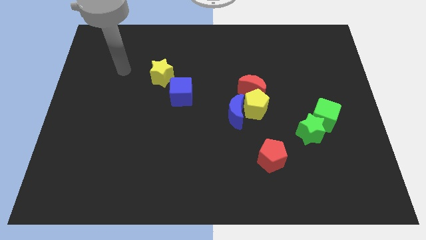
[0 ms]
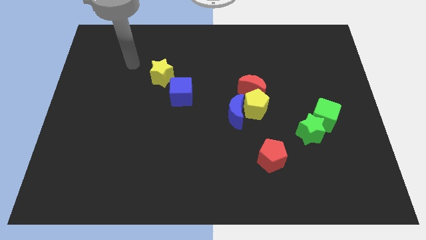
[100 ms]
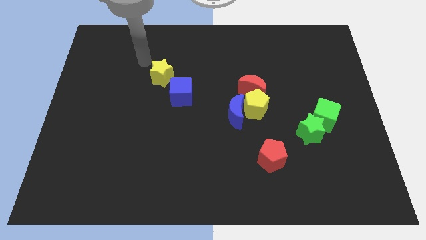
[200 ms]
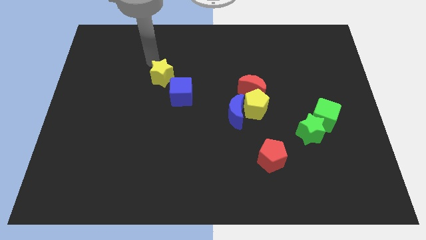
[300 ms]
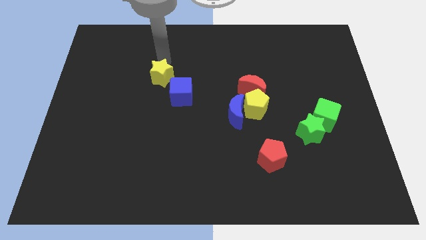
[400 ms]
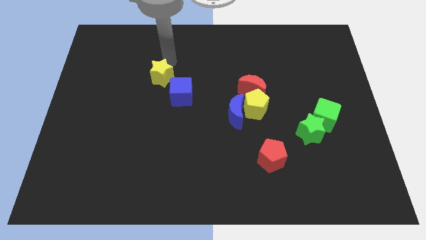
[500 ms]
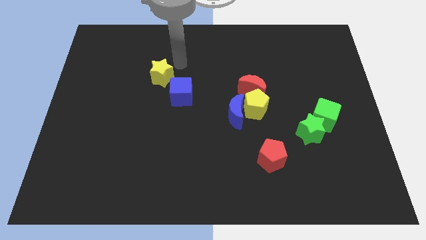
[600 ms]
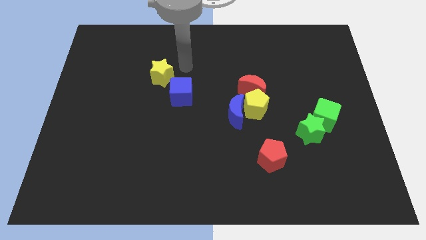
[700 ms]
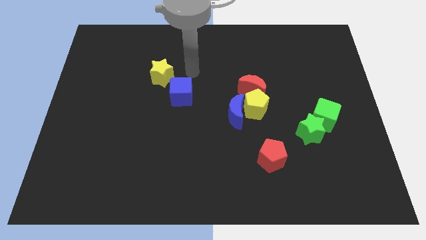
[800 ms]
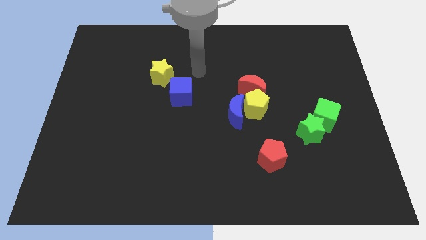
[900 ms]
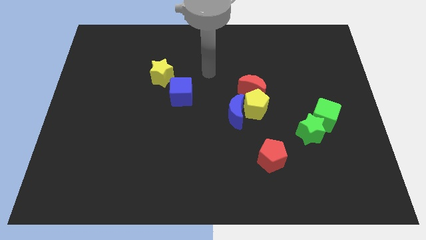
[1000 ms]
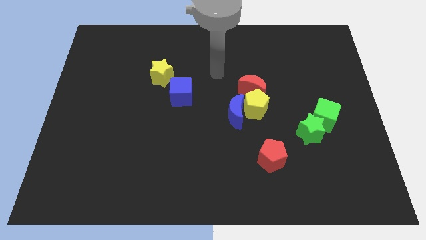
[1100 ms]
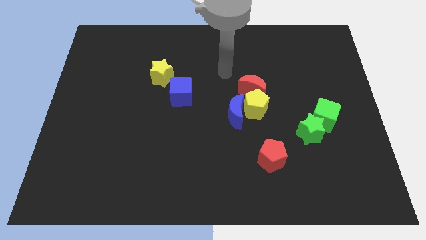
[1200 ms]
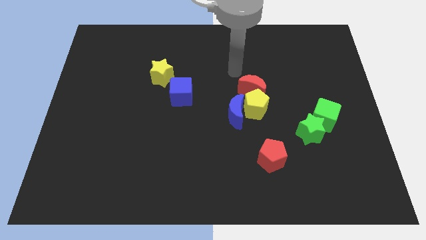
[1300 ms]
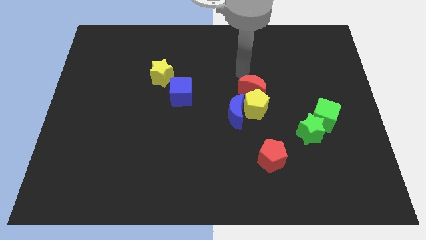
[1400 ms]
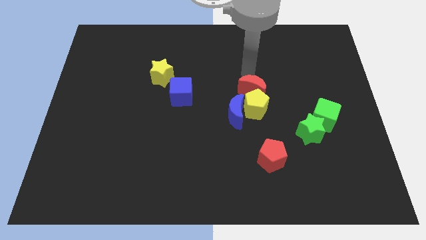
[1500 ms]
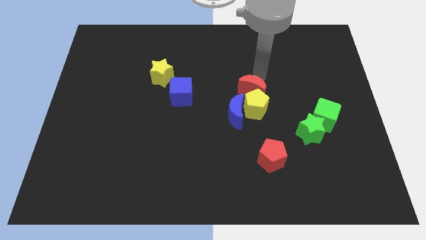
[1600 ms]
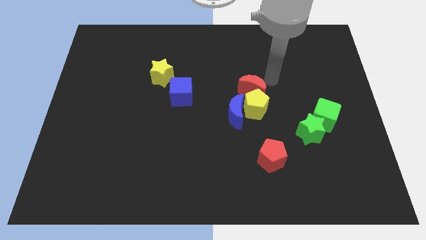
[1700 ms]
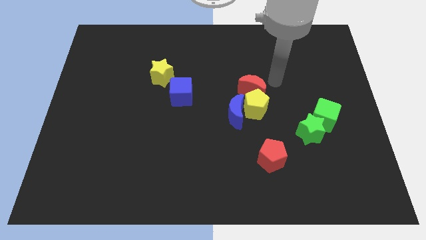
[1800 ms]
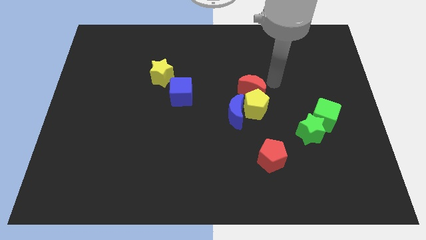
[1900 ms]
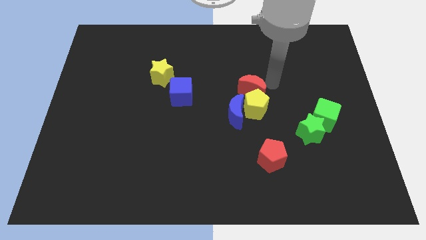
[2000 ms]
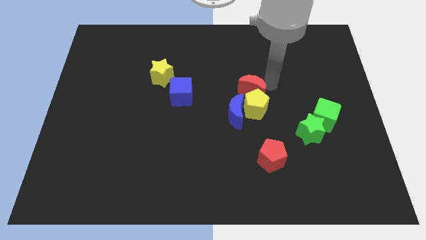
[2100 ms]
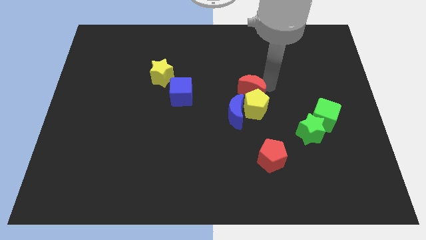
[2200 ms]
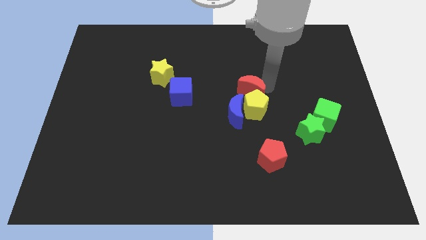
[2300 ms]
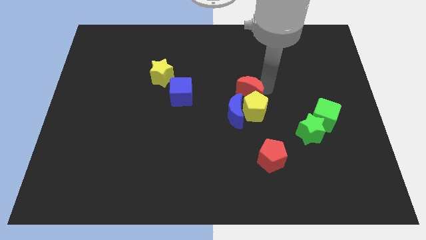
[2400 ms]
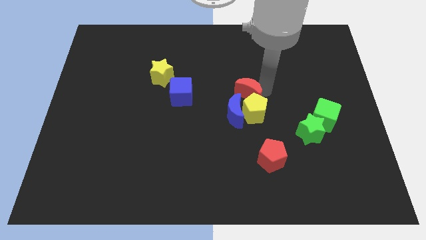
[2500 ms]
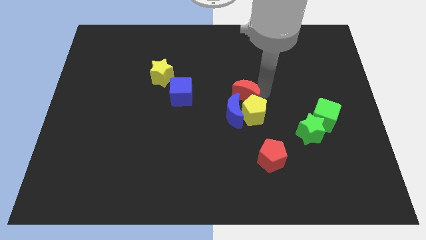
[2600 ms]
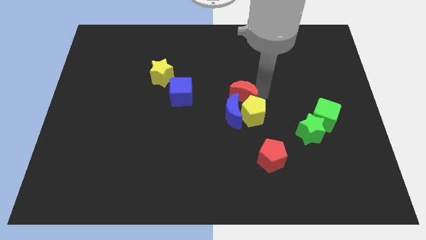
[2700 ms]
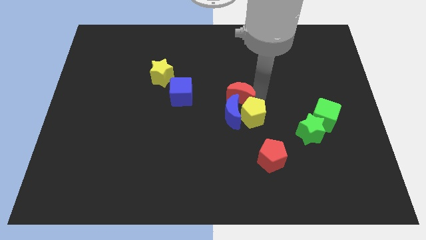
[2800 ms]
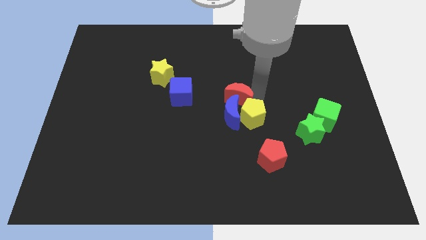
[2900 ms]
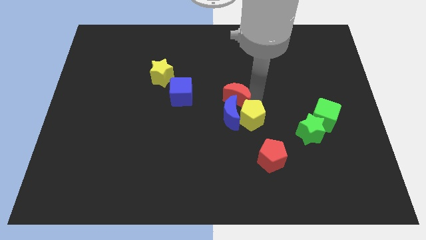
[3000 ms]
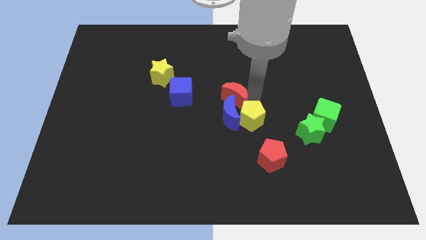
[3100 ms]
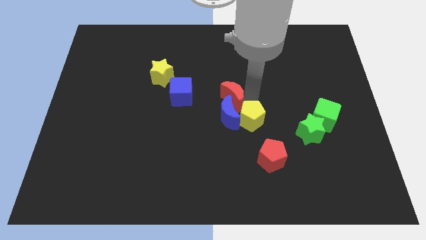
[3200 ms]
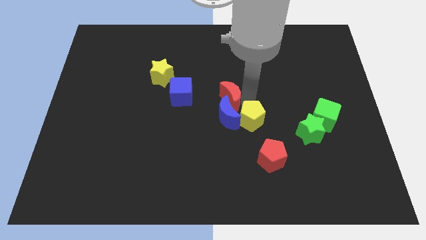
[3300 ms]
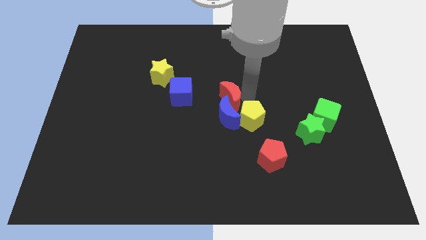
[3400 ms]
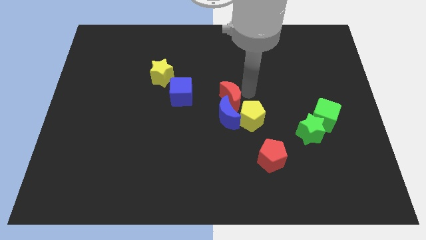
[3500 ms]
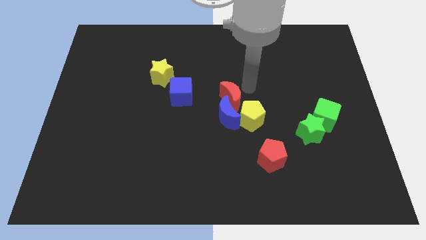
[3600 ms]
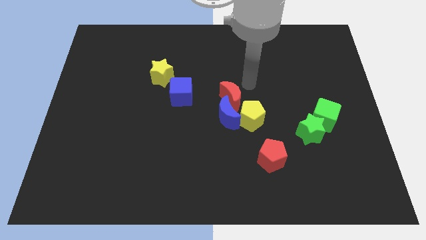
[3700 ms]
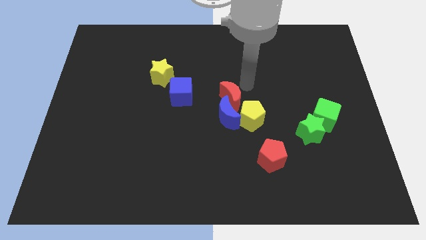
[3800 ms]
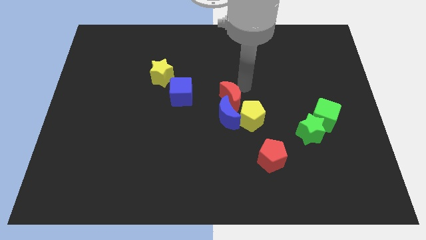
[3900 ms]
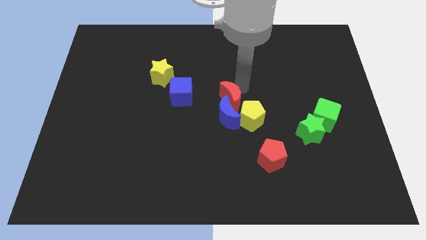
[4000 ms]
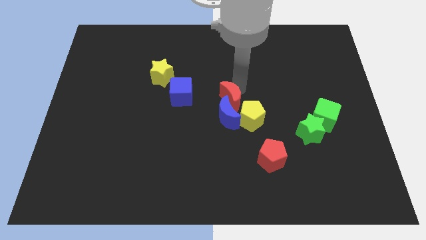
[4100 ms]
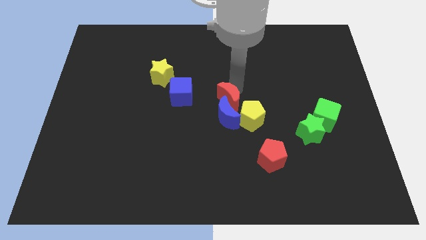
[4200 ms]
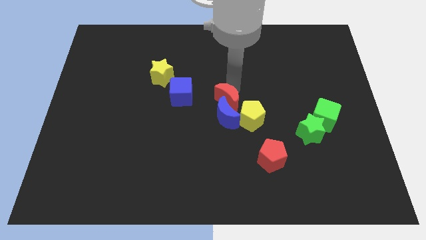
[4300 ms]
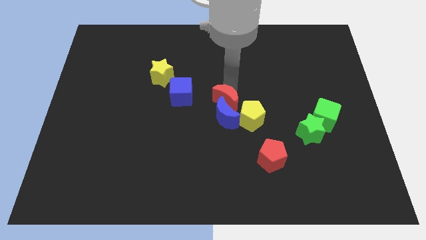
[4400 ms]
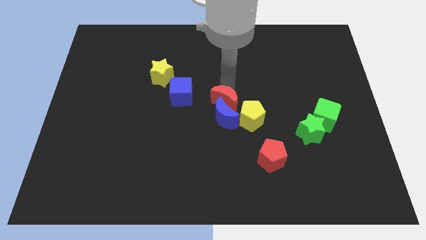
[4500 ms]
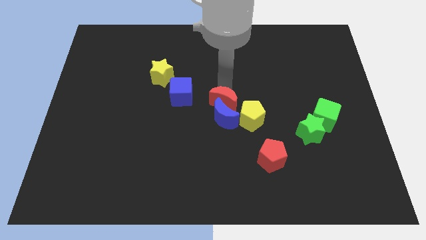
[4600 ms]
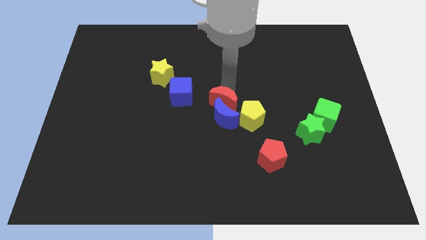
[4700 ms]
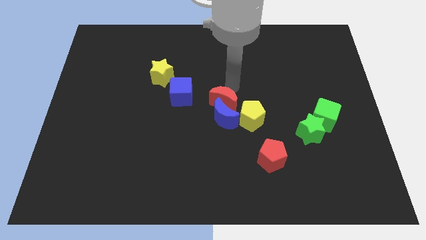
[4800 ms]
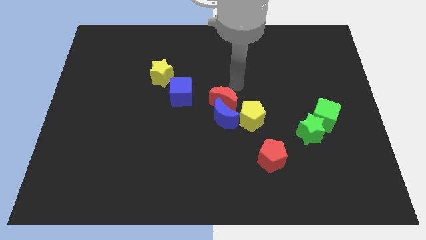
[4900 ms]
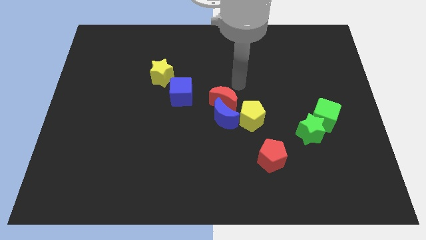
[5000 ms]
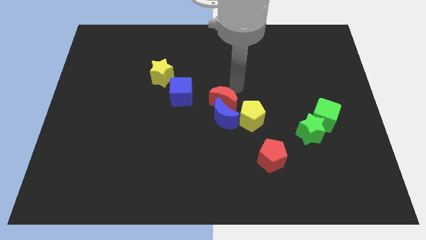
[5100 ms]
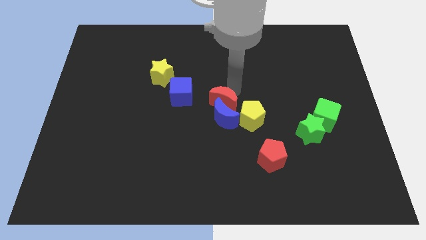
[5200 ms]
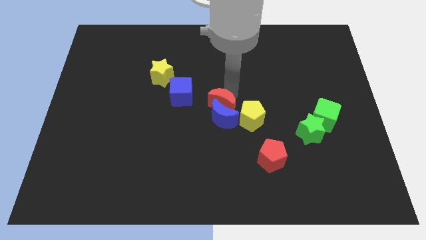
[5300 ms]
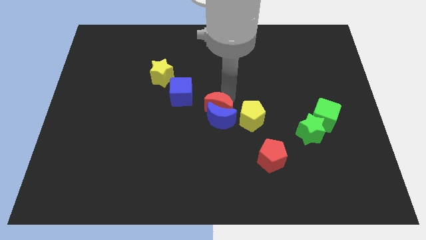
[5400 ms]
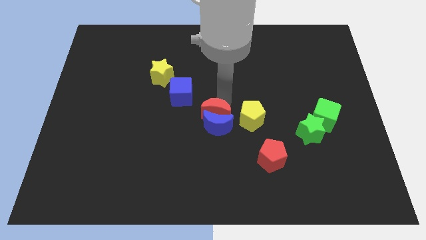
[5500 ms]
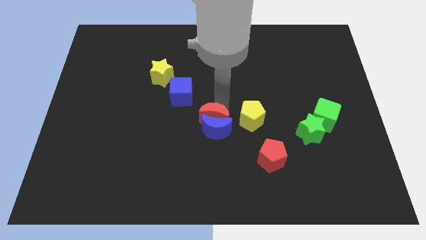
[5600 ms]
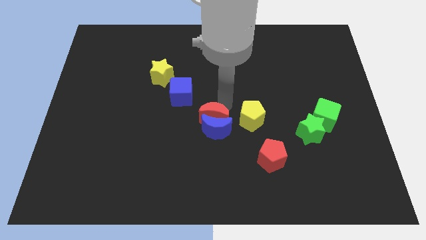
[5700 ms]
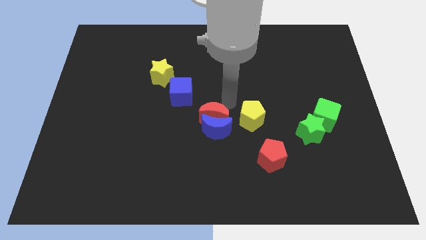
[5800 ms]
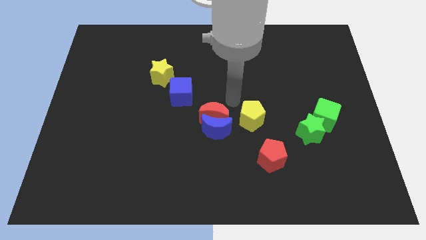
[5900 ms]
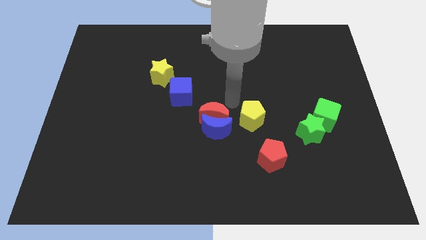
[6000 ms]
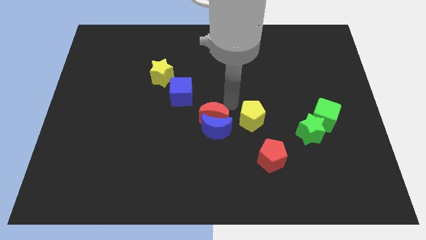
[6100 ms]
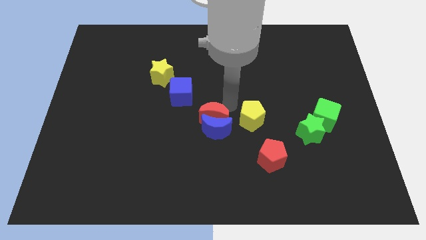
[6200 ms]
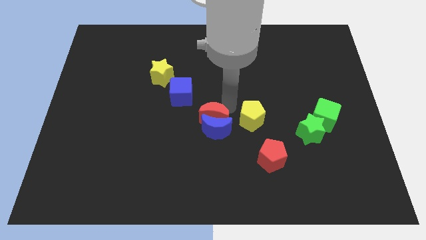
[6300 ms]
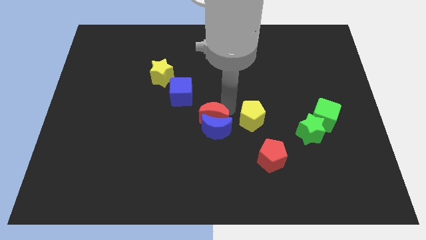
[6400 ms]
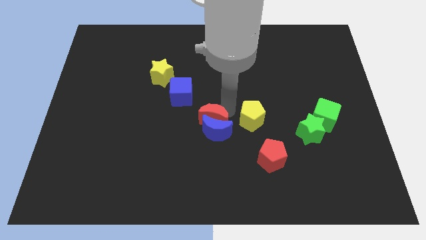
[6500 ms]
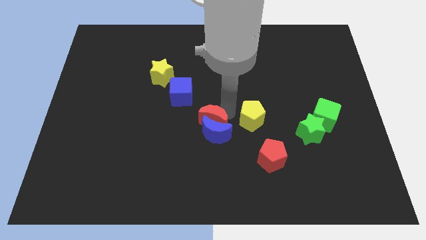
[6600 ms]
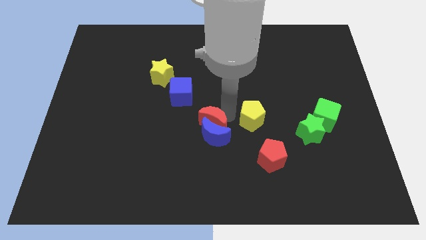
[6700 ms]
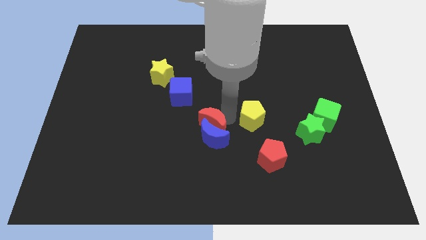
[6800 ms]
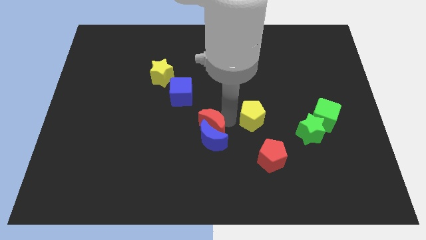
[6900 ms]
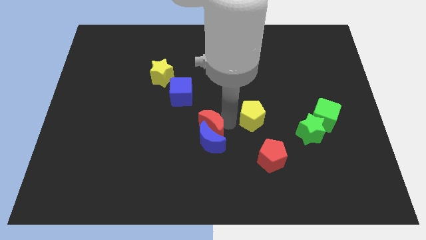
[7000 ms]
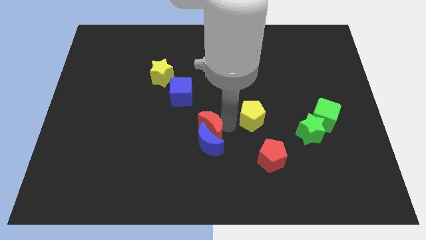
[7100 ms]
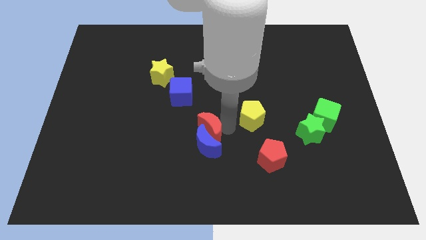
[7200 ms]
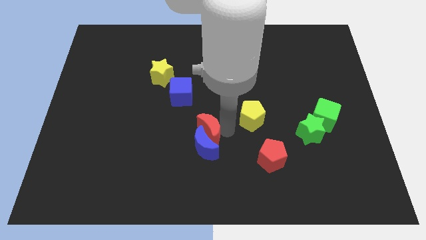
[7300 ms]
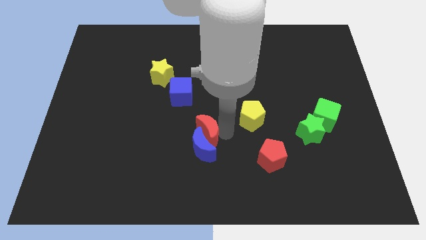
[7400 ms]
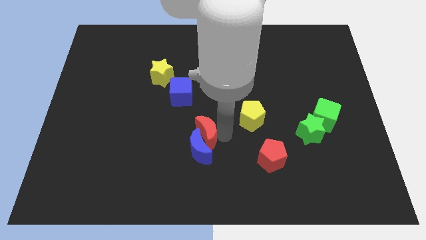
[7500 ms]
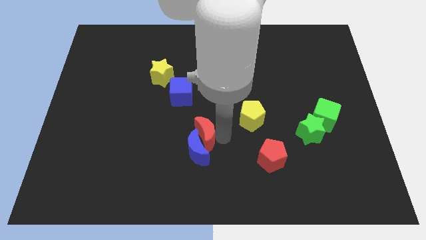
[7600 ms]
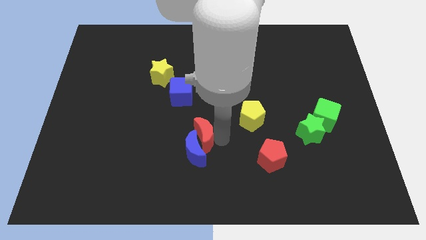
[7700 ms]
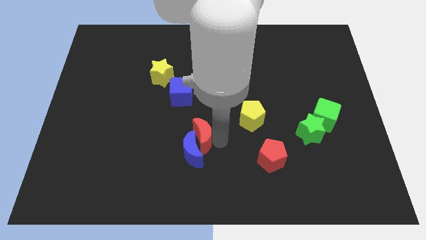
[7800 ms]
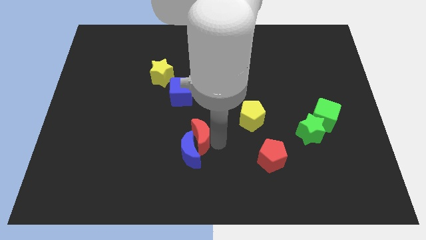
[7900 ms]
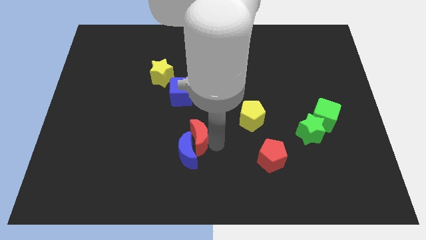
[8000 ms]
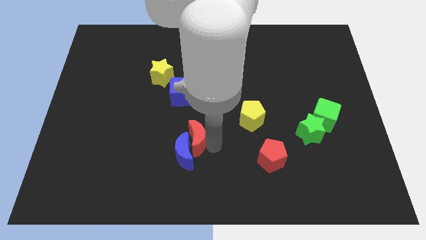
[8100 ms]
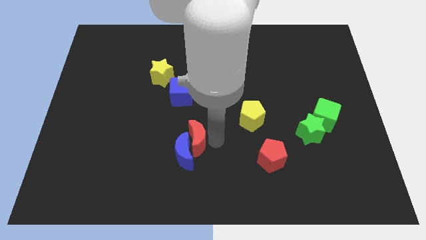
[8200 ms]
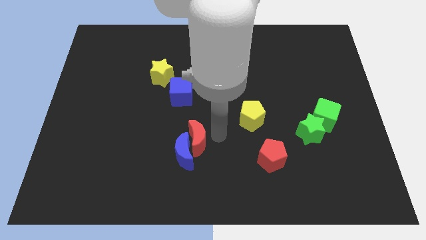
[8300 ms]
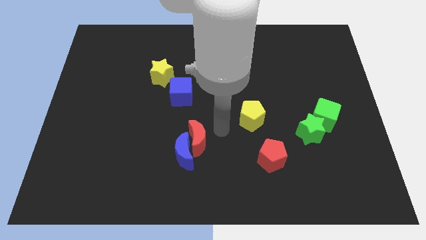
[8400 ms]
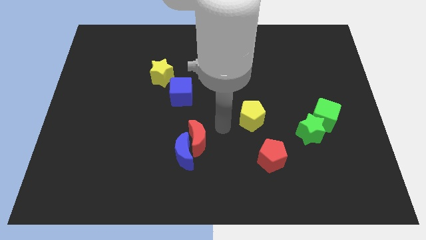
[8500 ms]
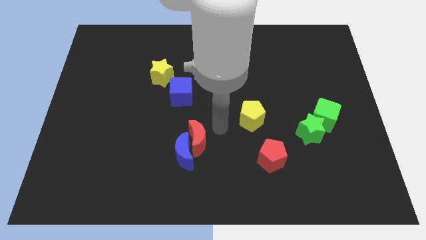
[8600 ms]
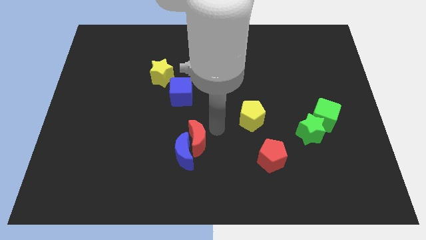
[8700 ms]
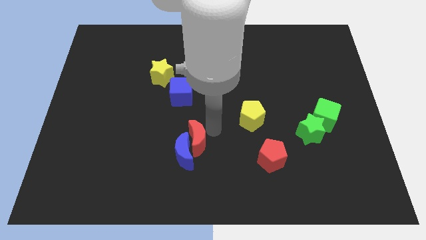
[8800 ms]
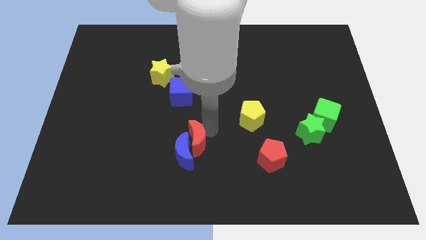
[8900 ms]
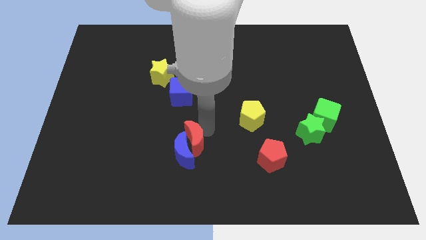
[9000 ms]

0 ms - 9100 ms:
move the red moon down and to the left
